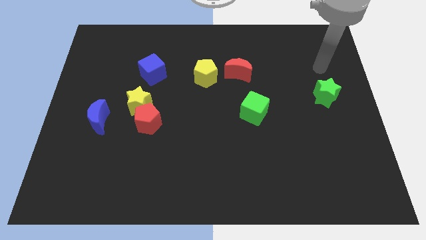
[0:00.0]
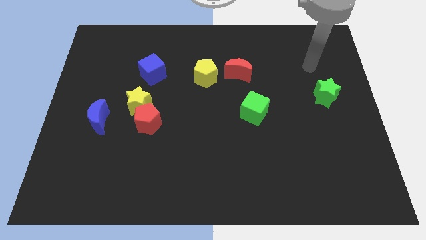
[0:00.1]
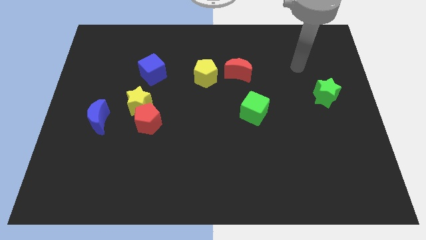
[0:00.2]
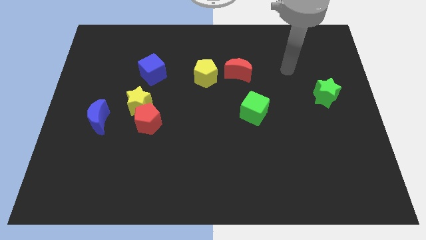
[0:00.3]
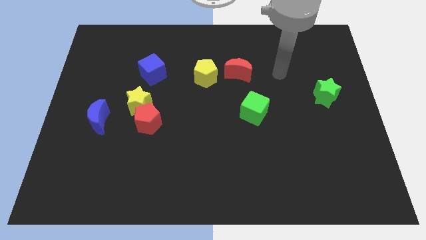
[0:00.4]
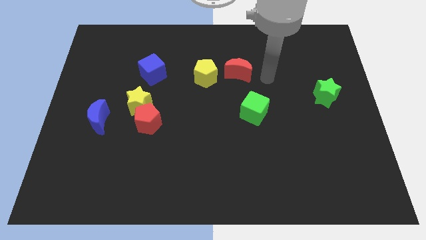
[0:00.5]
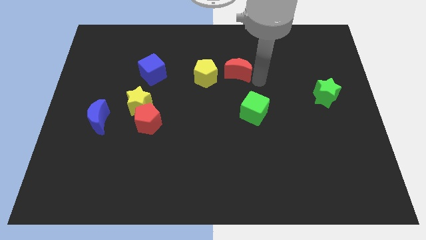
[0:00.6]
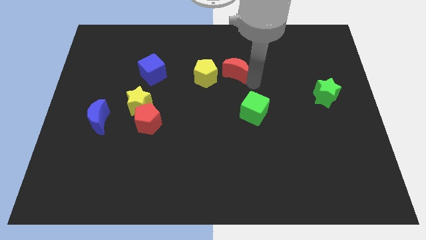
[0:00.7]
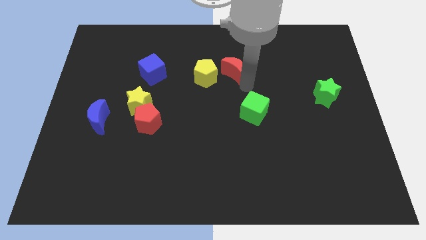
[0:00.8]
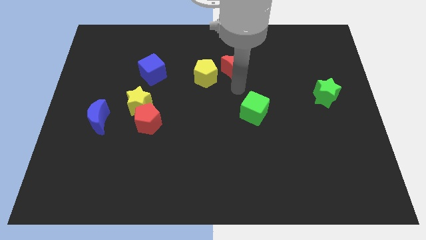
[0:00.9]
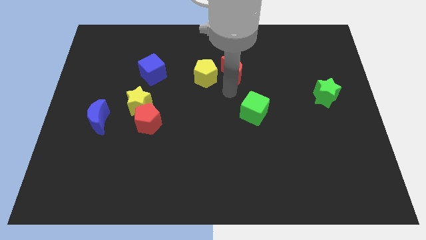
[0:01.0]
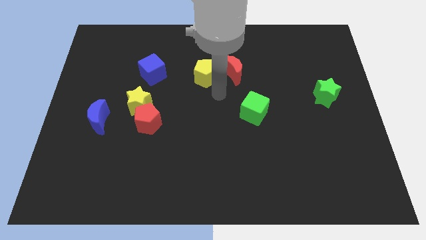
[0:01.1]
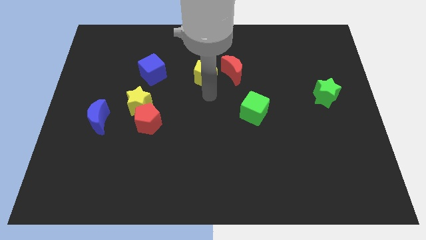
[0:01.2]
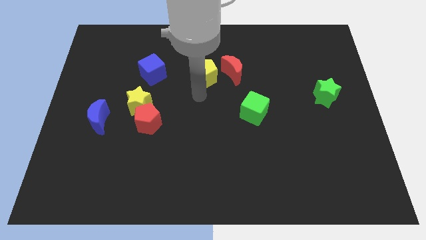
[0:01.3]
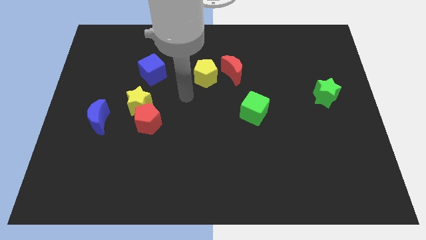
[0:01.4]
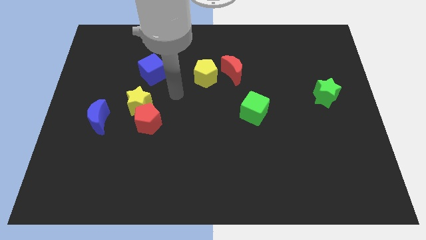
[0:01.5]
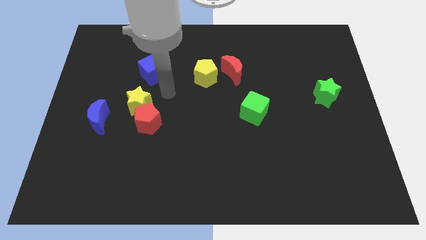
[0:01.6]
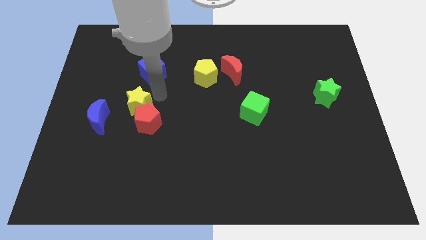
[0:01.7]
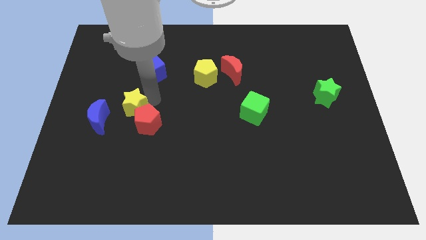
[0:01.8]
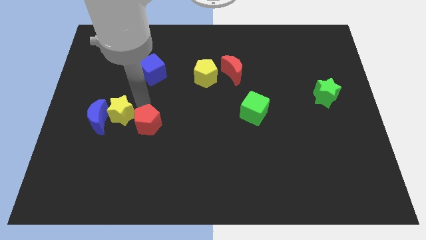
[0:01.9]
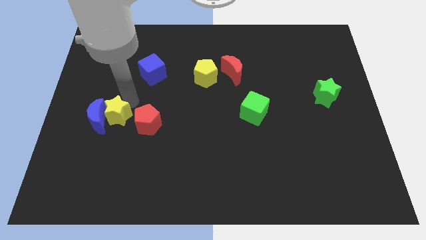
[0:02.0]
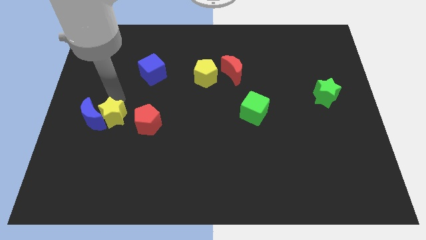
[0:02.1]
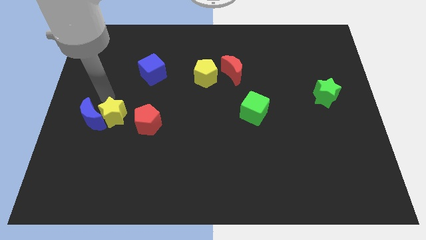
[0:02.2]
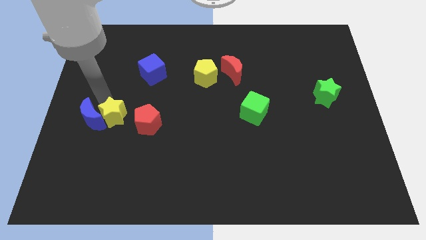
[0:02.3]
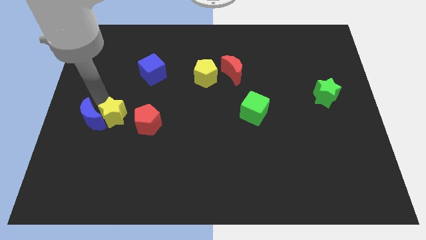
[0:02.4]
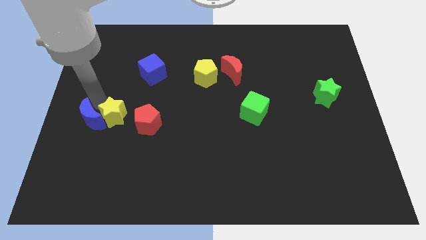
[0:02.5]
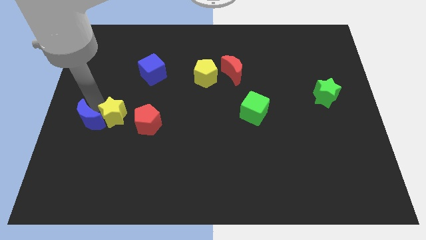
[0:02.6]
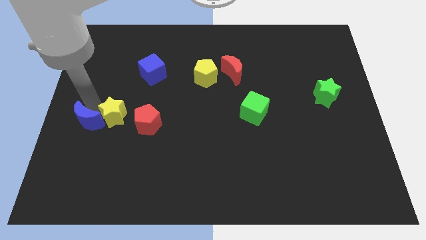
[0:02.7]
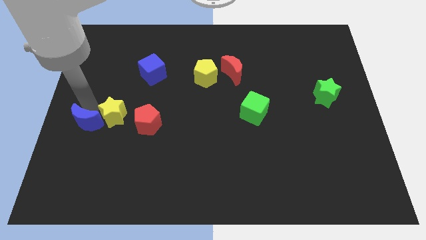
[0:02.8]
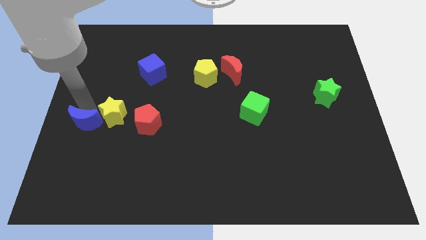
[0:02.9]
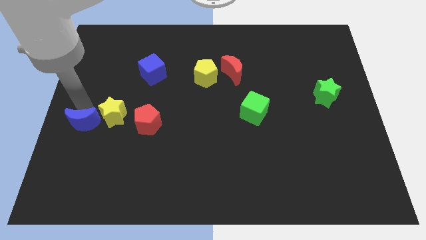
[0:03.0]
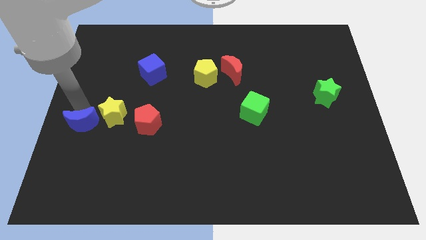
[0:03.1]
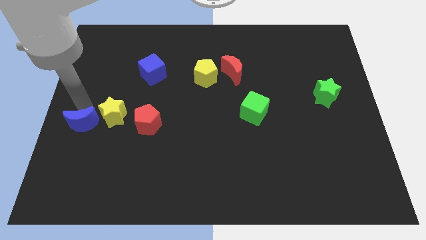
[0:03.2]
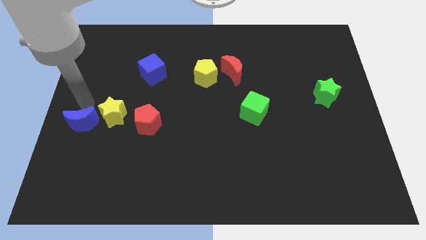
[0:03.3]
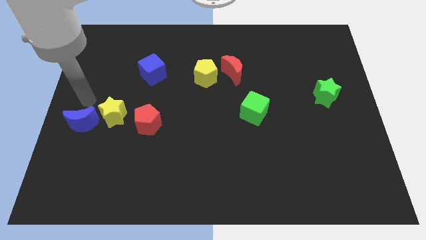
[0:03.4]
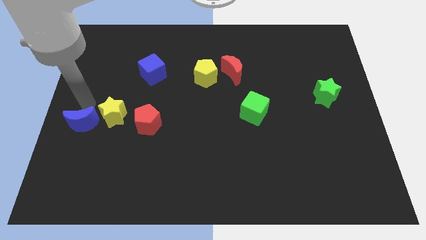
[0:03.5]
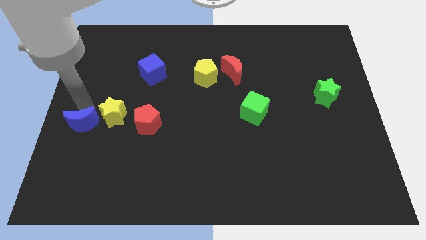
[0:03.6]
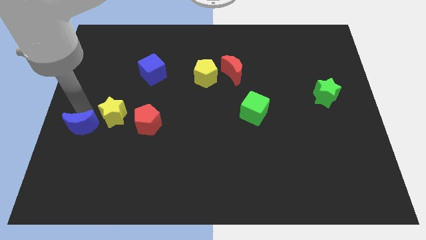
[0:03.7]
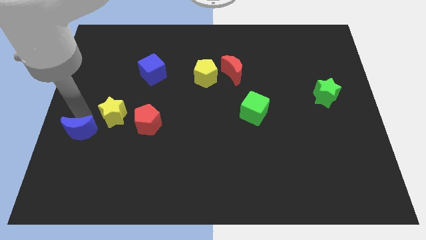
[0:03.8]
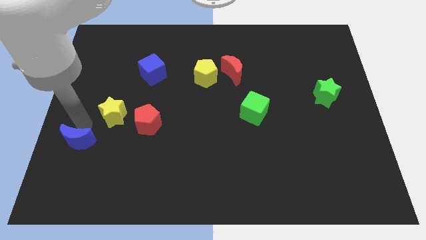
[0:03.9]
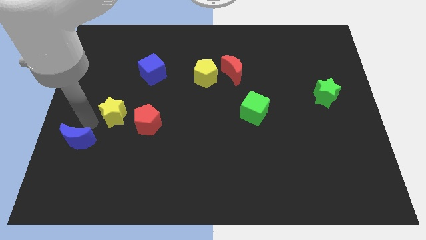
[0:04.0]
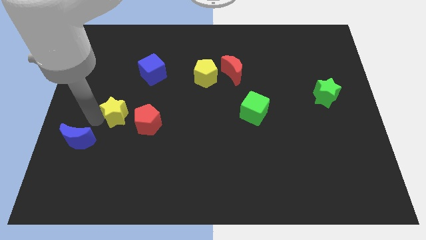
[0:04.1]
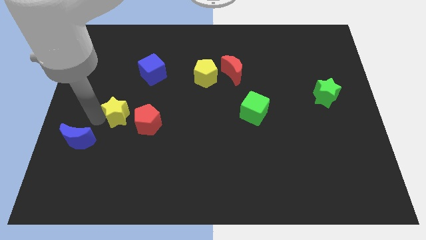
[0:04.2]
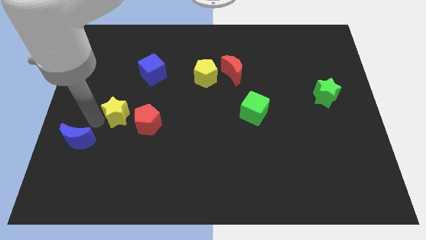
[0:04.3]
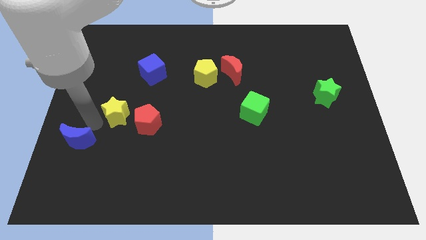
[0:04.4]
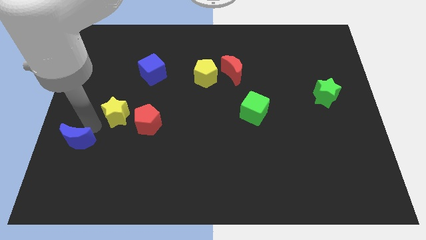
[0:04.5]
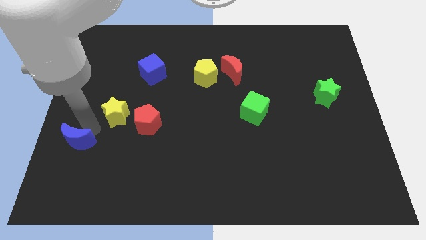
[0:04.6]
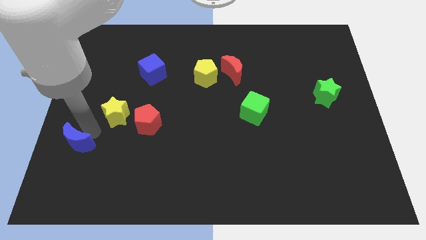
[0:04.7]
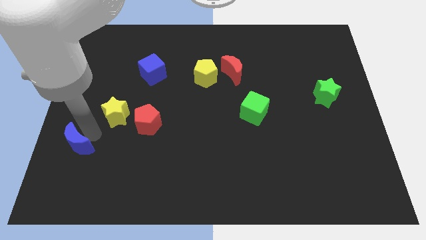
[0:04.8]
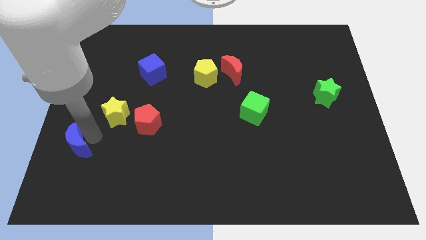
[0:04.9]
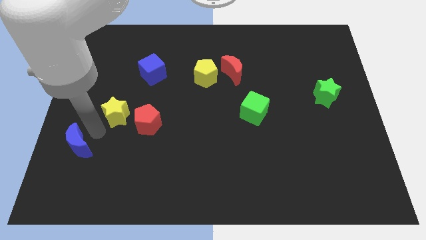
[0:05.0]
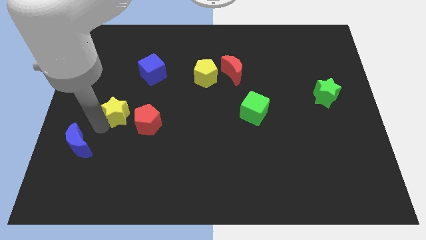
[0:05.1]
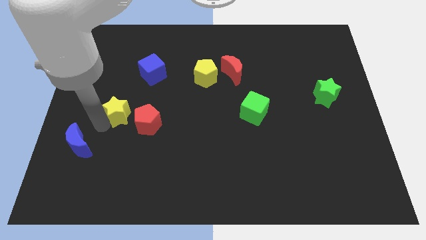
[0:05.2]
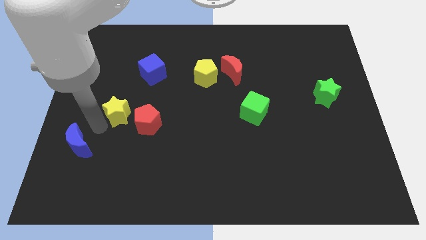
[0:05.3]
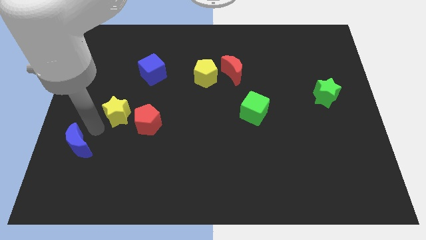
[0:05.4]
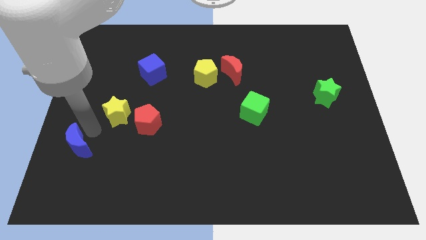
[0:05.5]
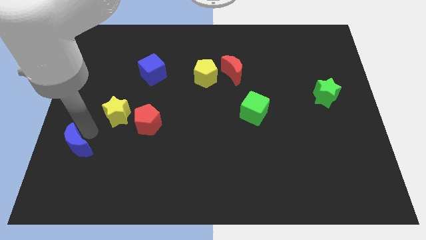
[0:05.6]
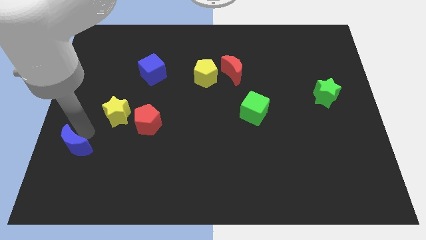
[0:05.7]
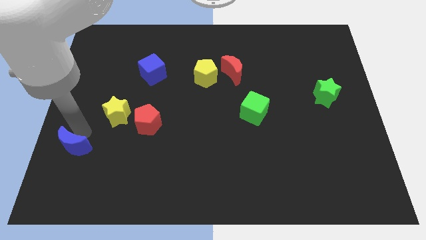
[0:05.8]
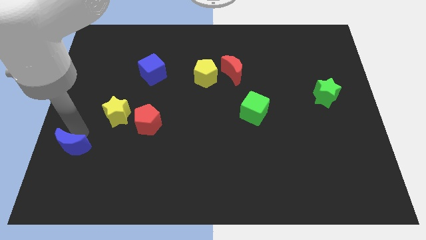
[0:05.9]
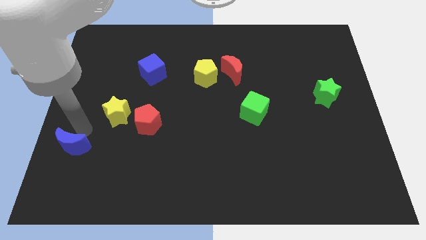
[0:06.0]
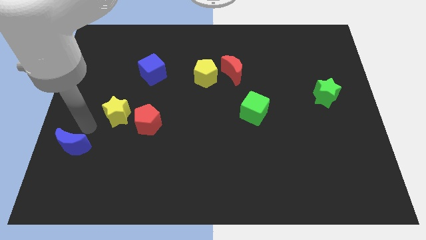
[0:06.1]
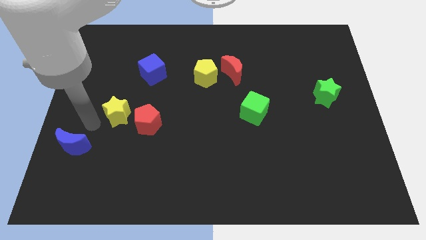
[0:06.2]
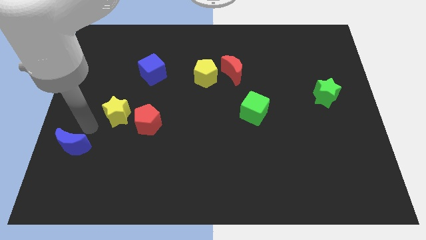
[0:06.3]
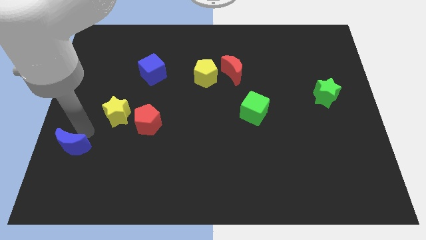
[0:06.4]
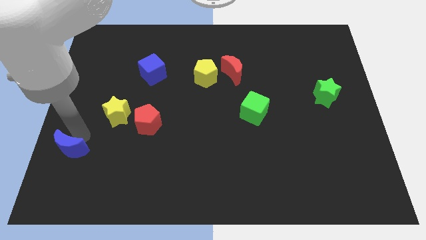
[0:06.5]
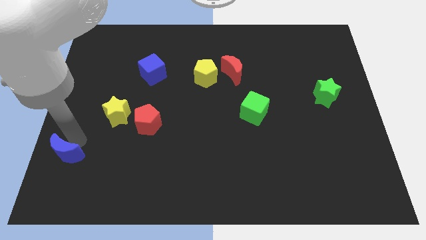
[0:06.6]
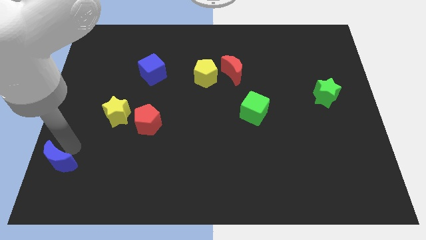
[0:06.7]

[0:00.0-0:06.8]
move the blue moon to the bottom left corner

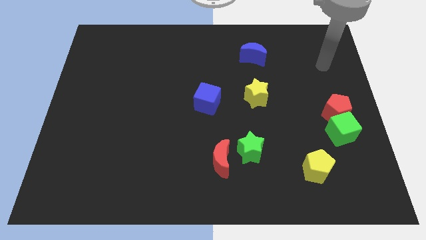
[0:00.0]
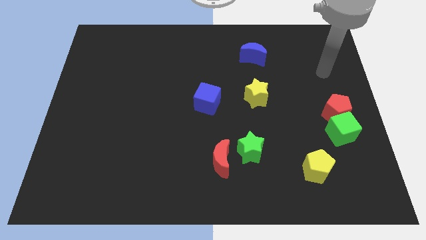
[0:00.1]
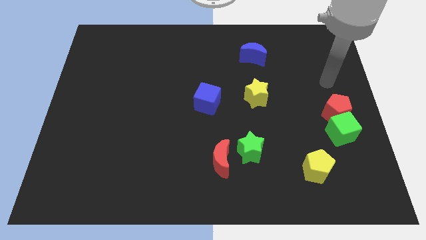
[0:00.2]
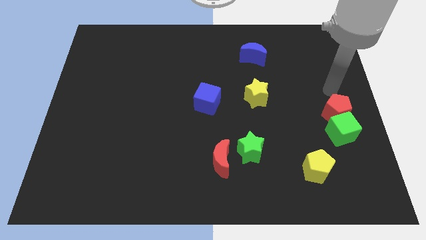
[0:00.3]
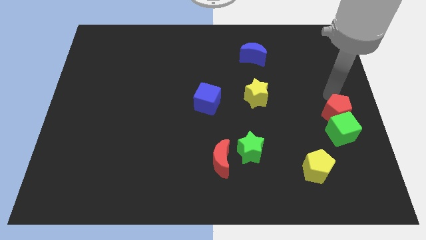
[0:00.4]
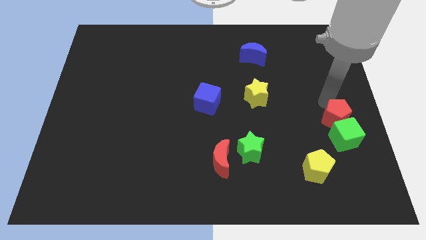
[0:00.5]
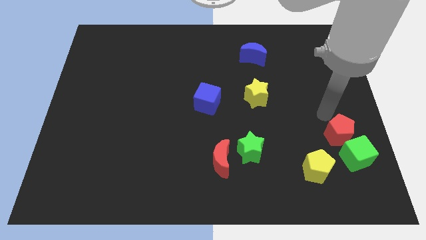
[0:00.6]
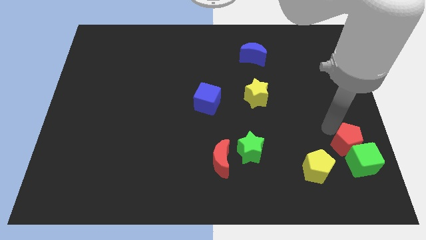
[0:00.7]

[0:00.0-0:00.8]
slide the green cube to the bottom right of the board
